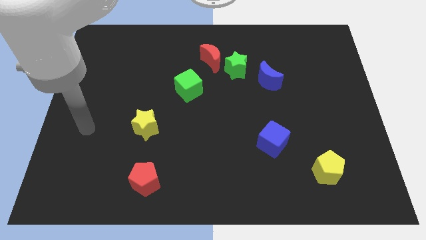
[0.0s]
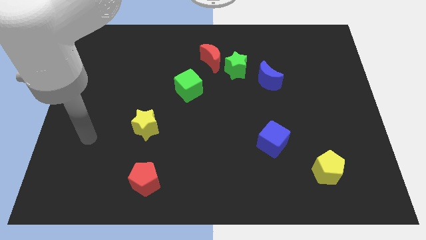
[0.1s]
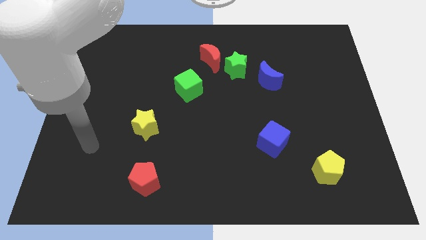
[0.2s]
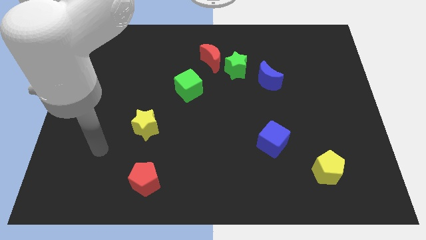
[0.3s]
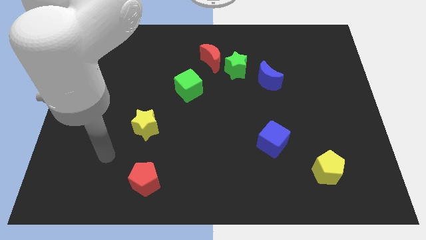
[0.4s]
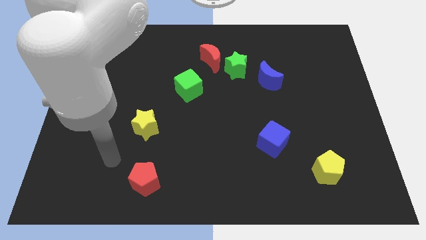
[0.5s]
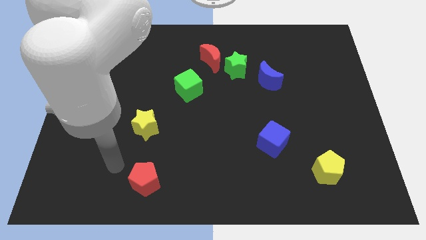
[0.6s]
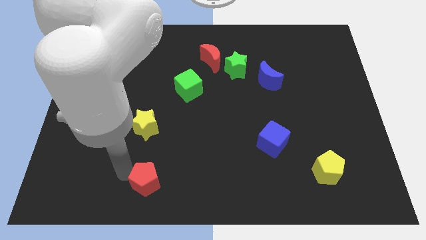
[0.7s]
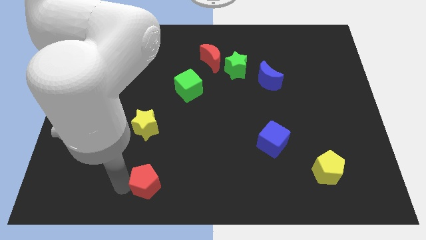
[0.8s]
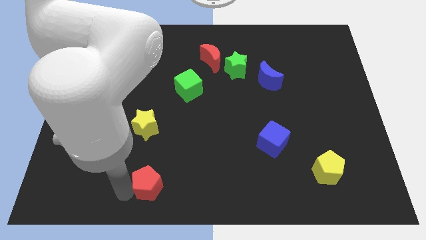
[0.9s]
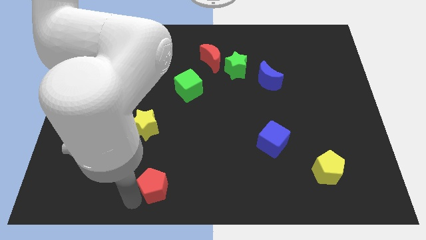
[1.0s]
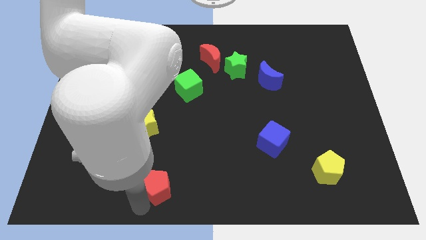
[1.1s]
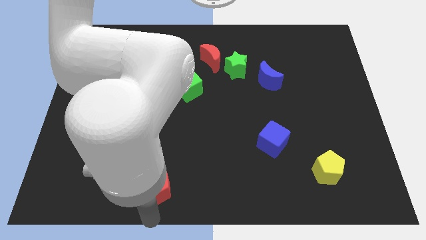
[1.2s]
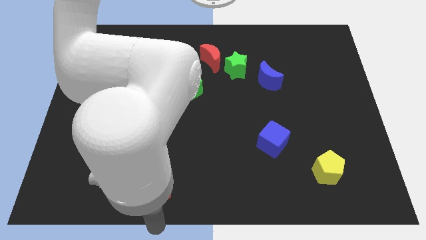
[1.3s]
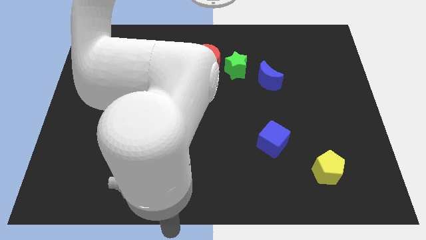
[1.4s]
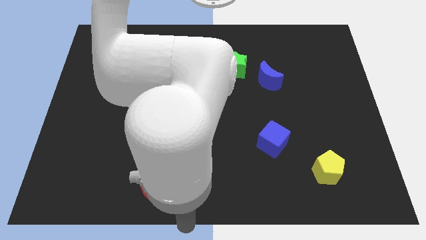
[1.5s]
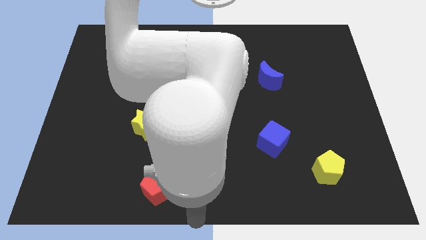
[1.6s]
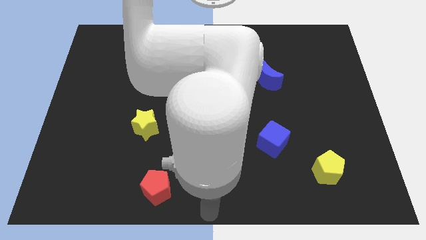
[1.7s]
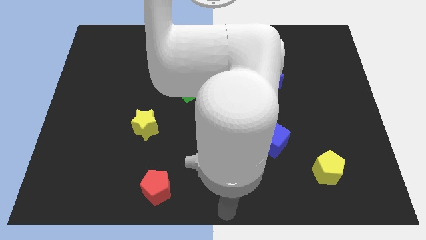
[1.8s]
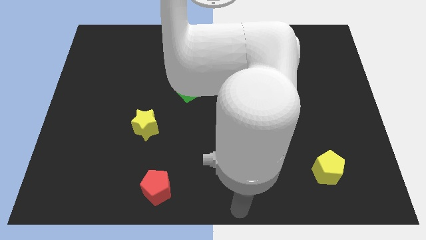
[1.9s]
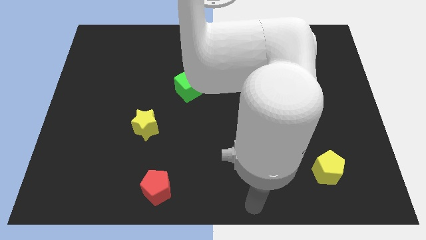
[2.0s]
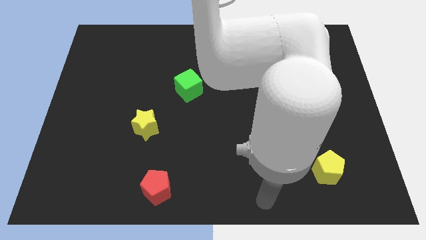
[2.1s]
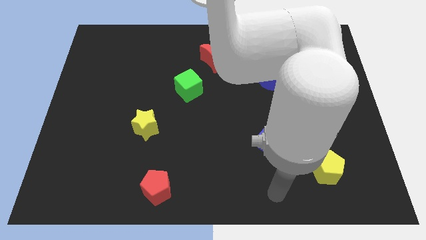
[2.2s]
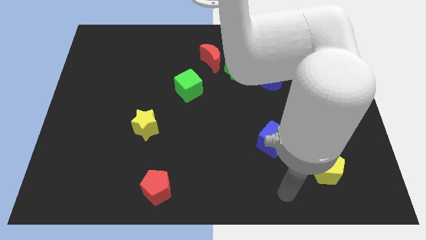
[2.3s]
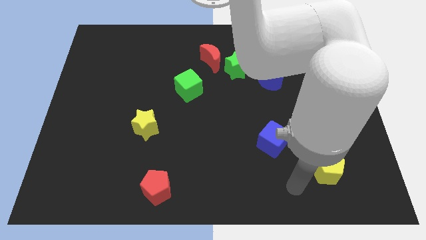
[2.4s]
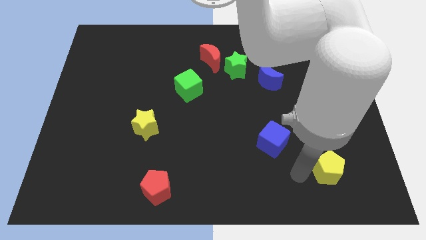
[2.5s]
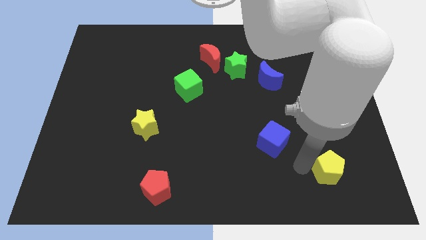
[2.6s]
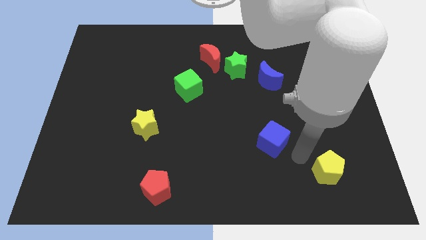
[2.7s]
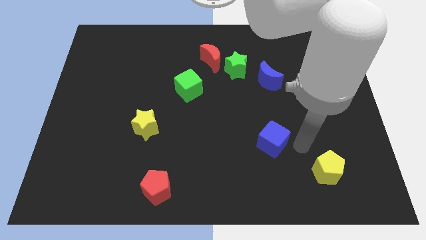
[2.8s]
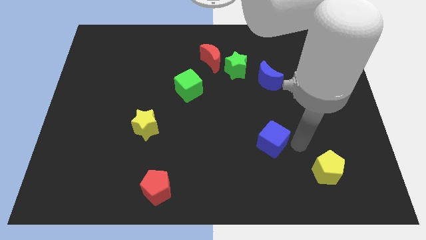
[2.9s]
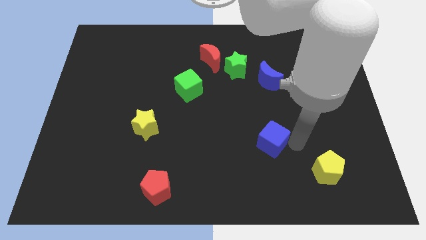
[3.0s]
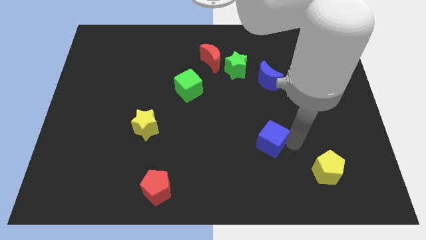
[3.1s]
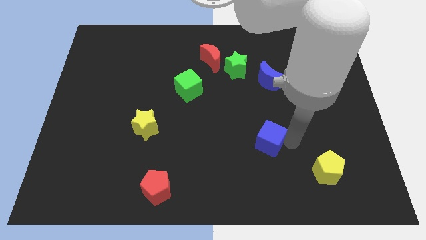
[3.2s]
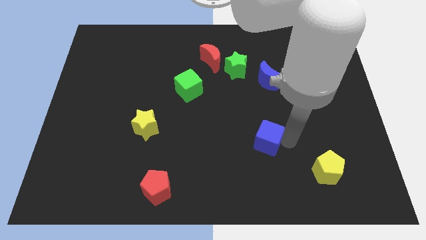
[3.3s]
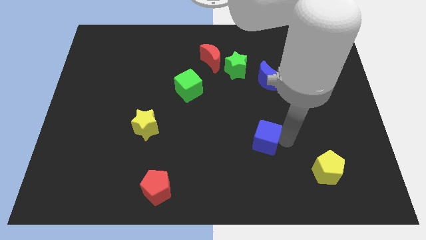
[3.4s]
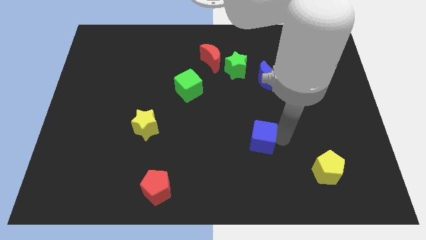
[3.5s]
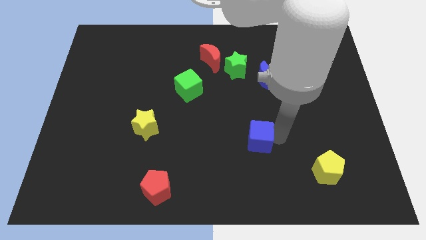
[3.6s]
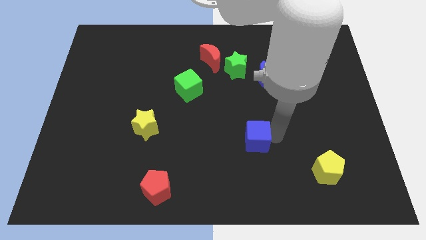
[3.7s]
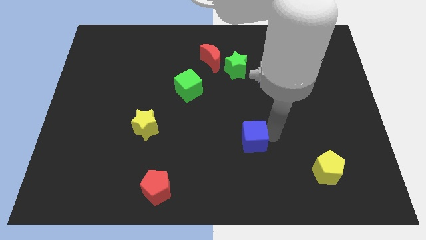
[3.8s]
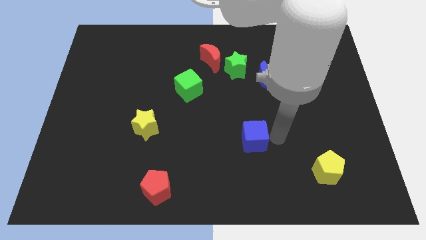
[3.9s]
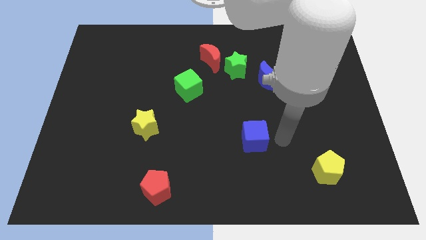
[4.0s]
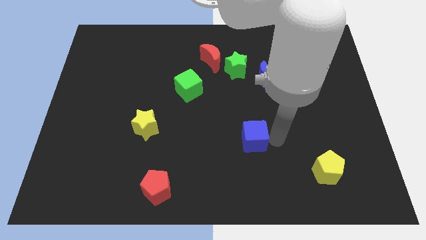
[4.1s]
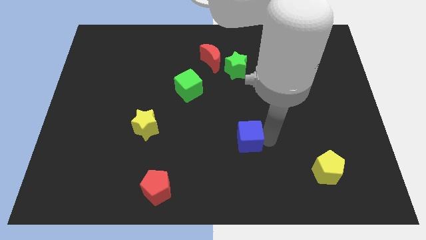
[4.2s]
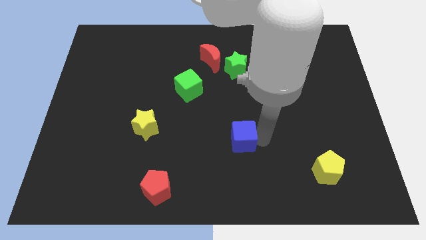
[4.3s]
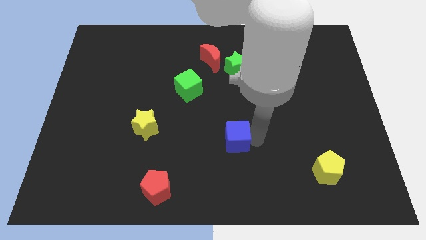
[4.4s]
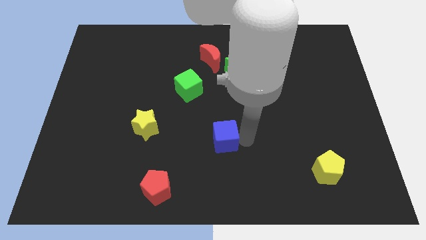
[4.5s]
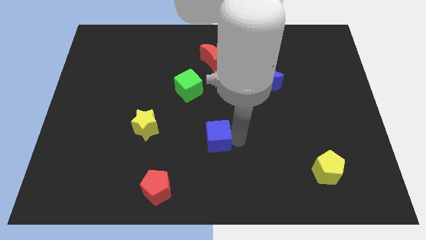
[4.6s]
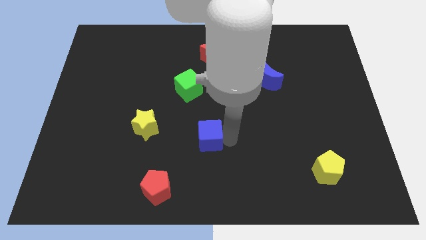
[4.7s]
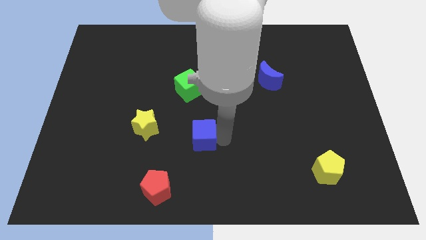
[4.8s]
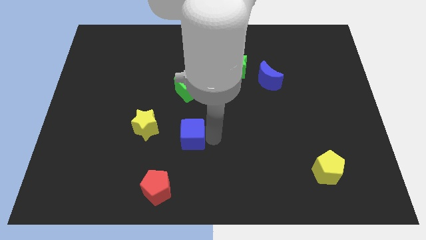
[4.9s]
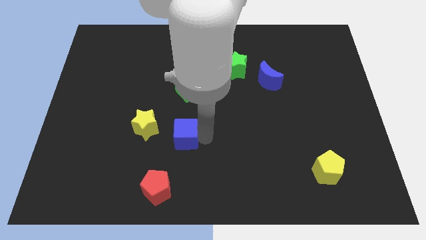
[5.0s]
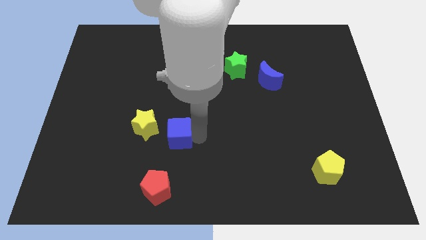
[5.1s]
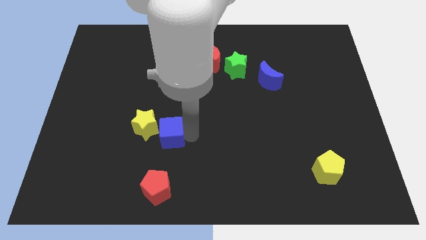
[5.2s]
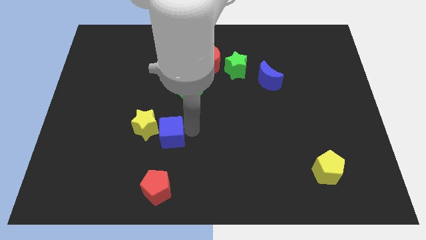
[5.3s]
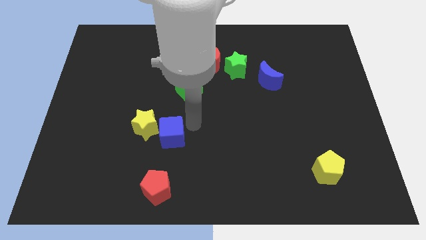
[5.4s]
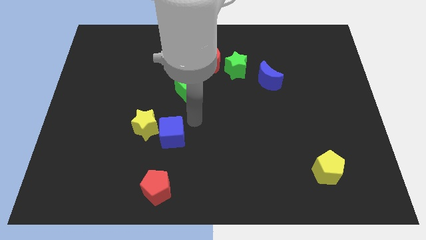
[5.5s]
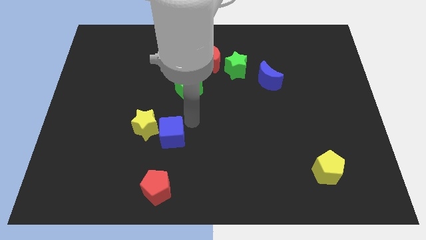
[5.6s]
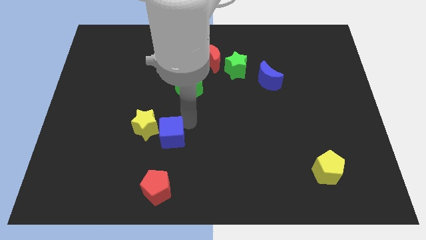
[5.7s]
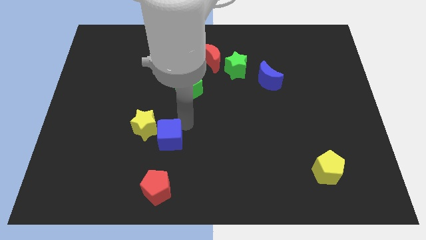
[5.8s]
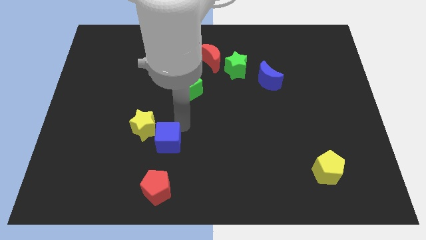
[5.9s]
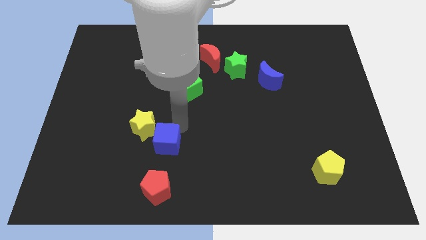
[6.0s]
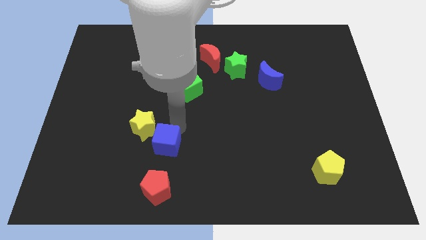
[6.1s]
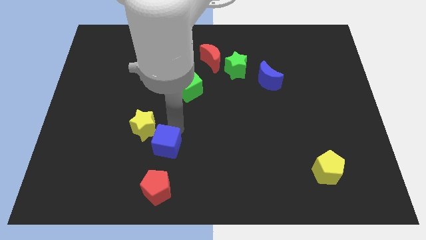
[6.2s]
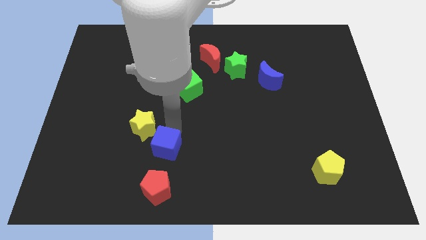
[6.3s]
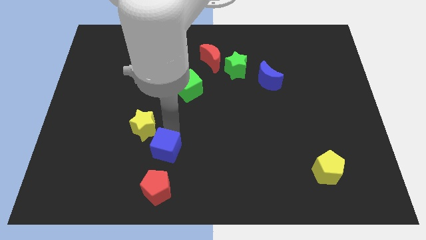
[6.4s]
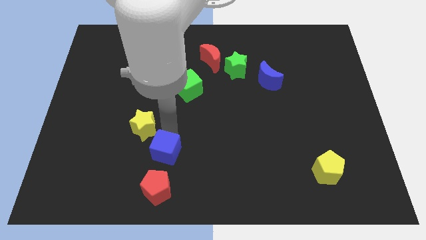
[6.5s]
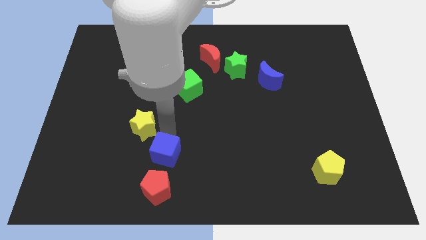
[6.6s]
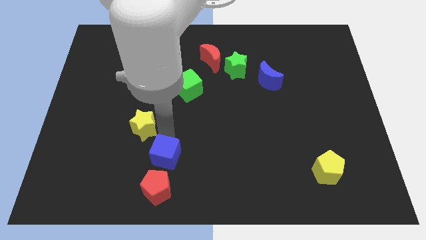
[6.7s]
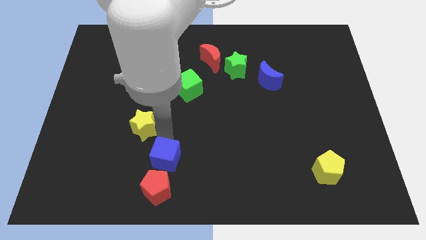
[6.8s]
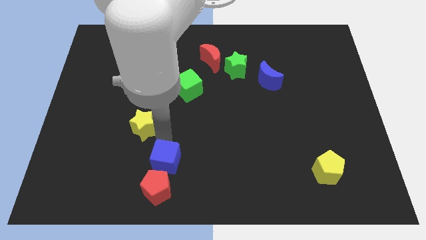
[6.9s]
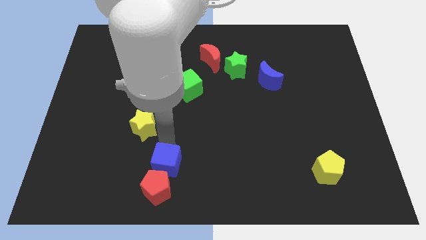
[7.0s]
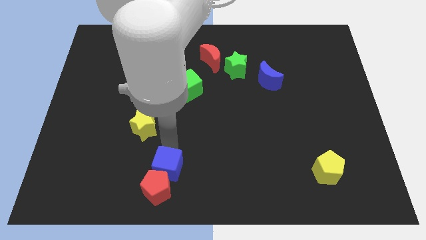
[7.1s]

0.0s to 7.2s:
slide the blue cube to the top left of the red pentagon

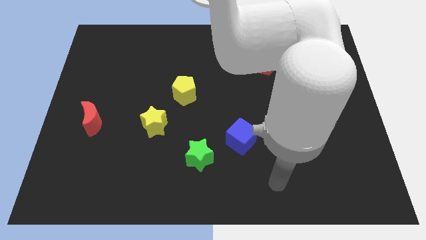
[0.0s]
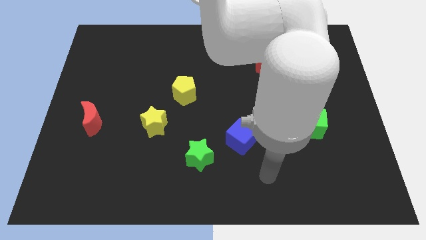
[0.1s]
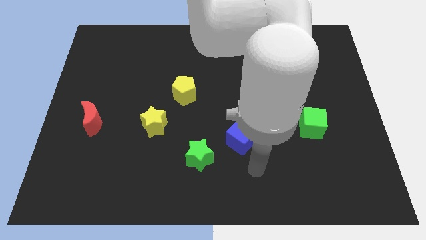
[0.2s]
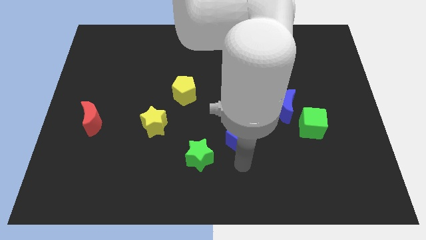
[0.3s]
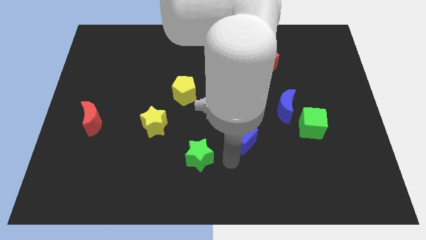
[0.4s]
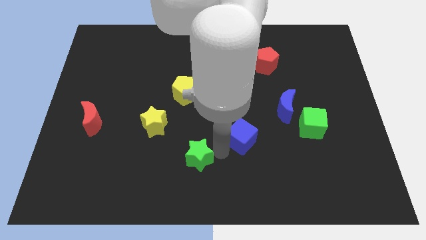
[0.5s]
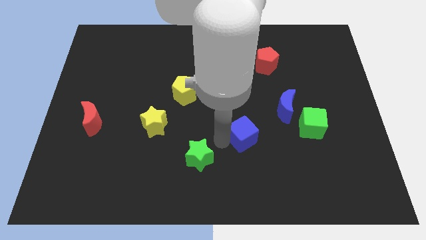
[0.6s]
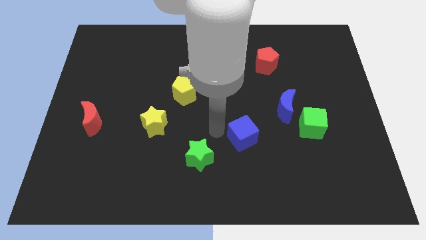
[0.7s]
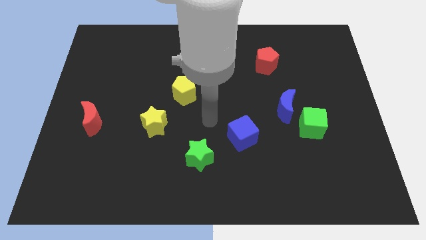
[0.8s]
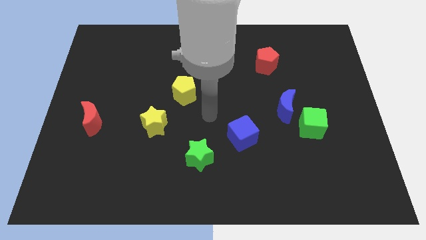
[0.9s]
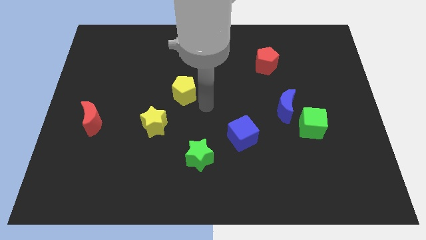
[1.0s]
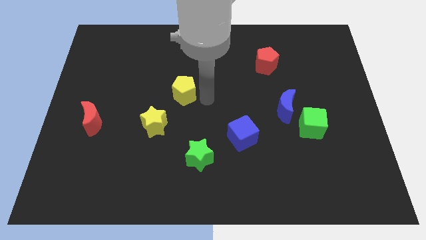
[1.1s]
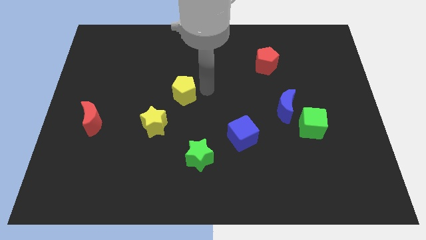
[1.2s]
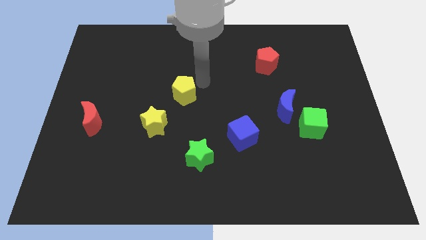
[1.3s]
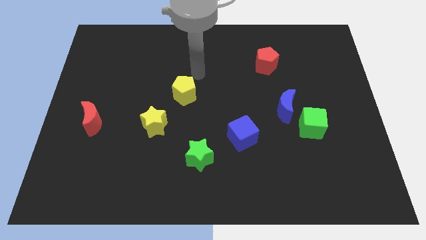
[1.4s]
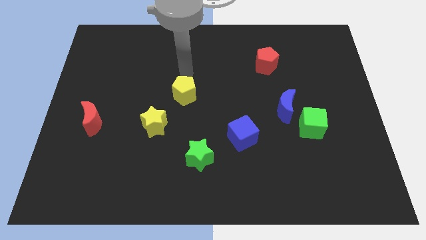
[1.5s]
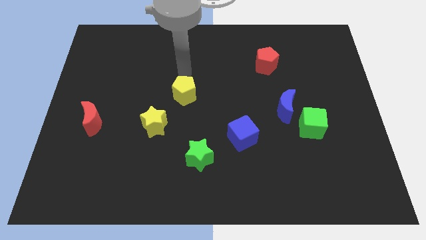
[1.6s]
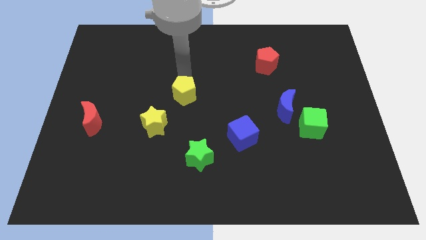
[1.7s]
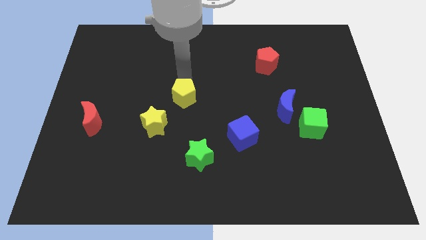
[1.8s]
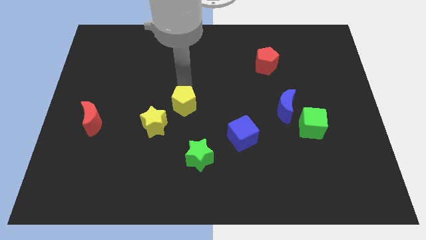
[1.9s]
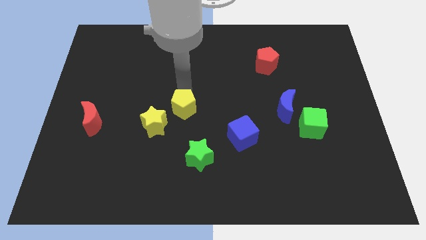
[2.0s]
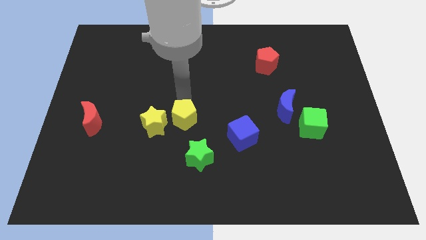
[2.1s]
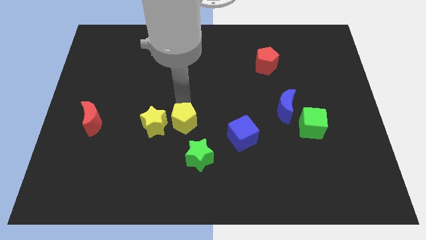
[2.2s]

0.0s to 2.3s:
slide the yellow pentagon just left of the blue cube
